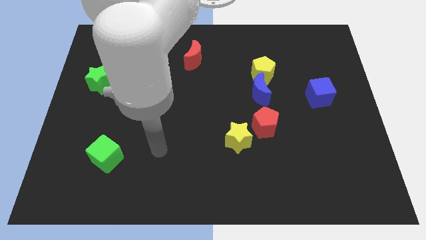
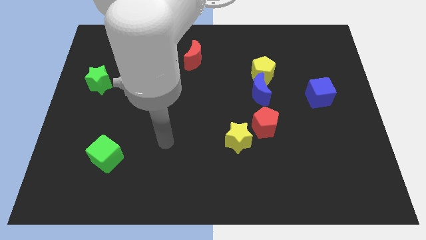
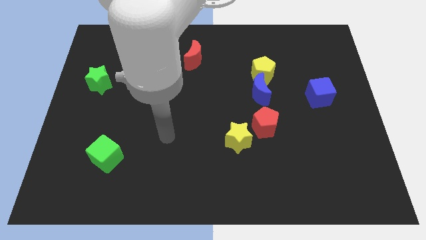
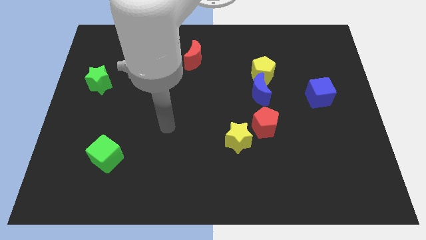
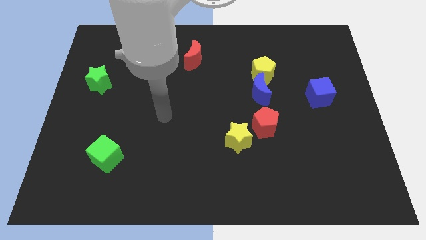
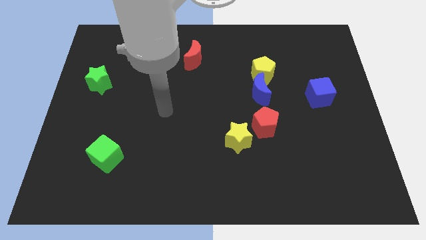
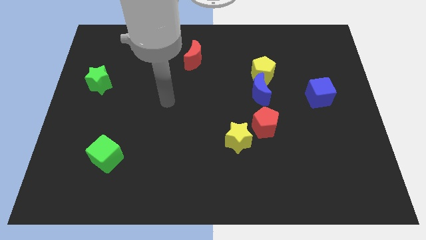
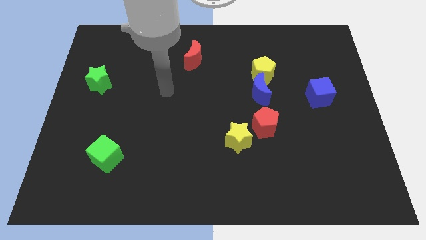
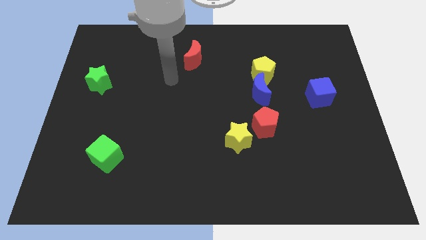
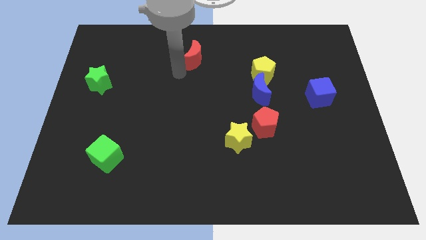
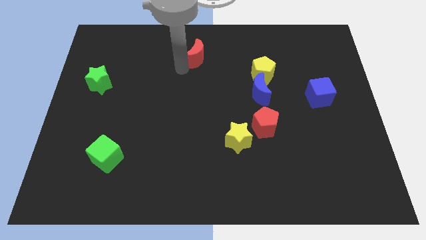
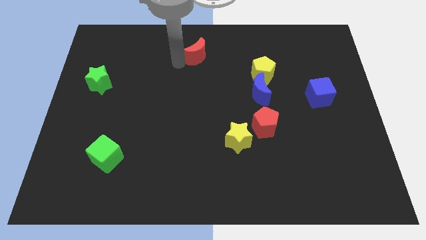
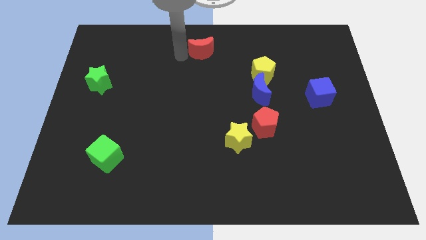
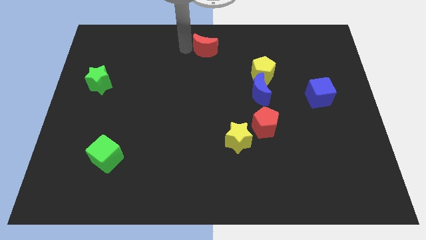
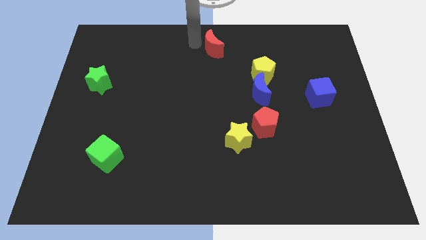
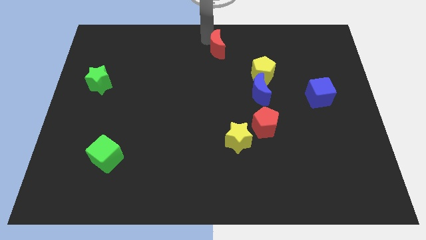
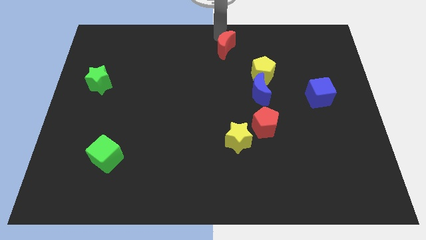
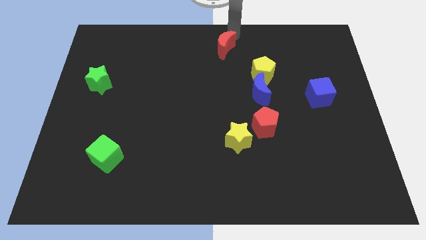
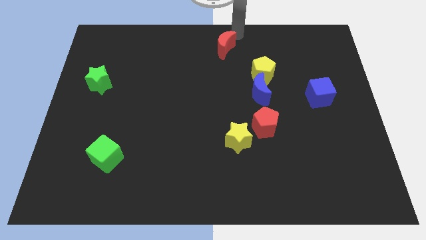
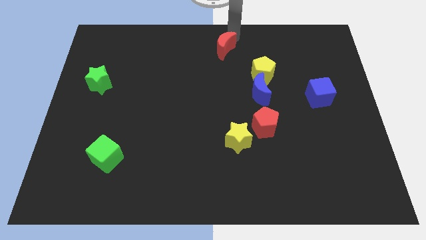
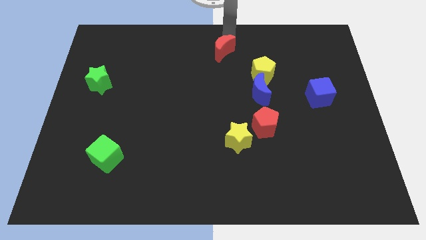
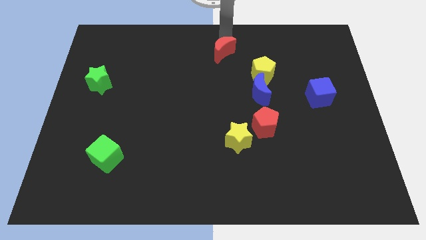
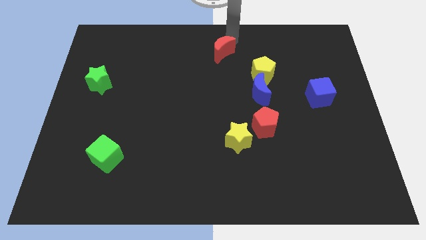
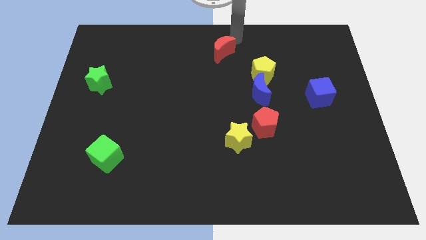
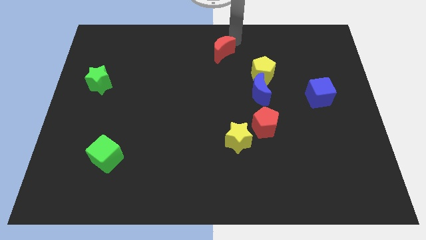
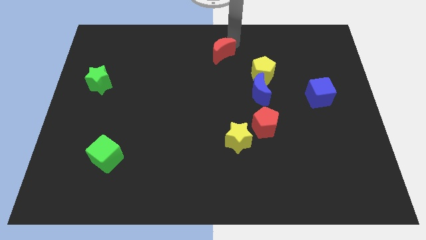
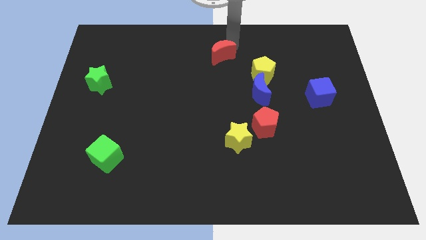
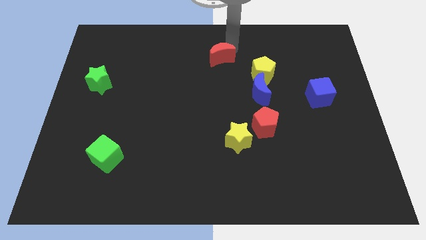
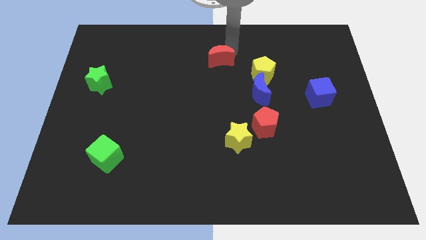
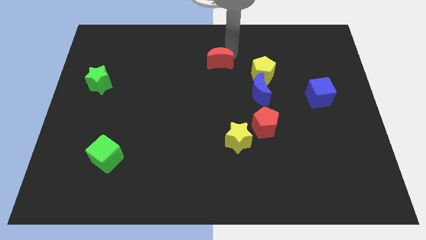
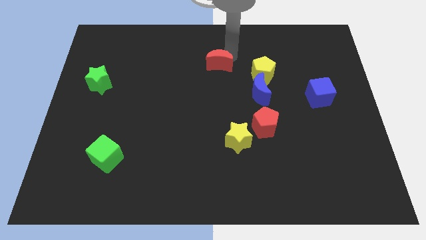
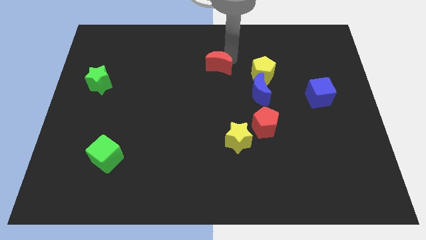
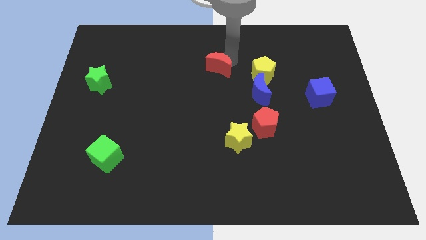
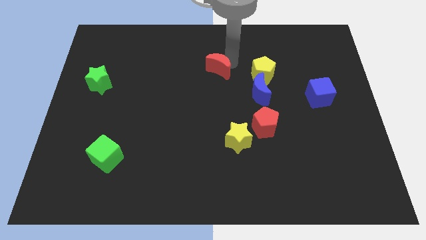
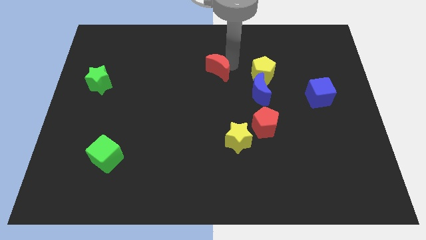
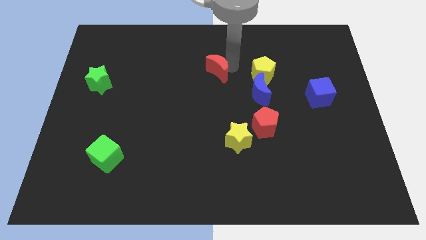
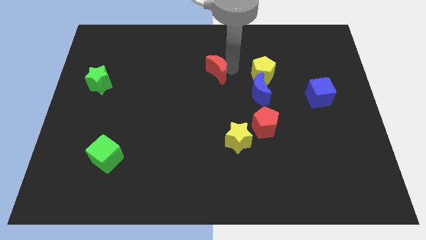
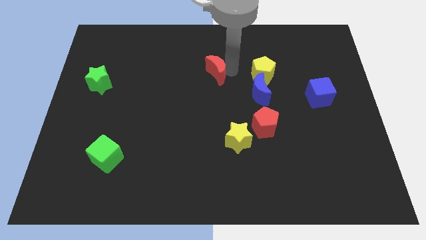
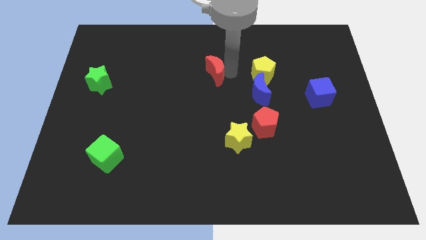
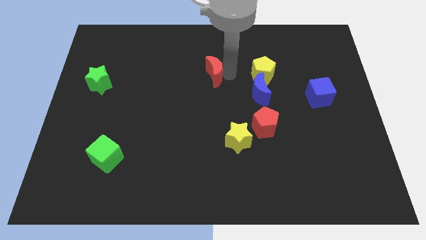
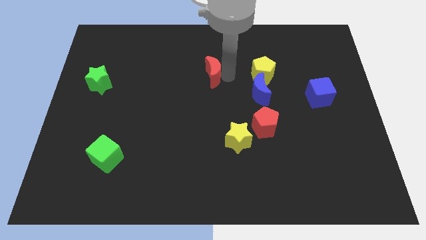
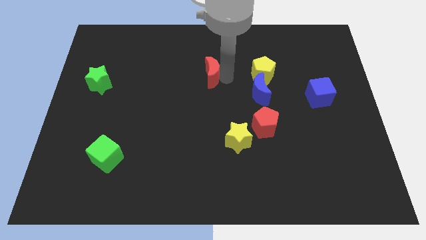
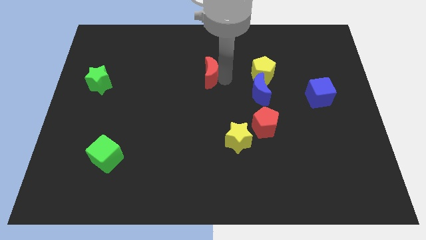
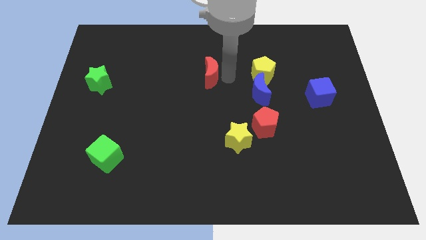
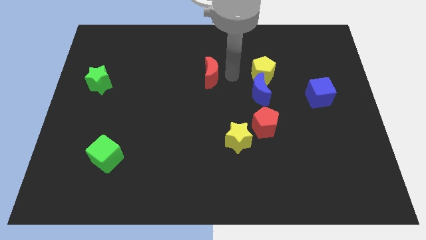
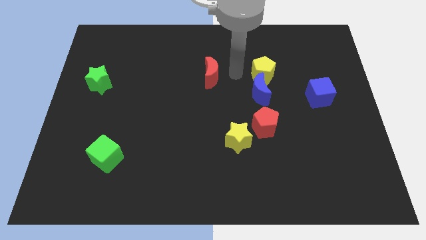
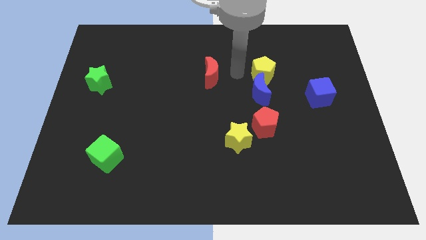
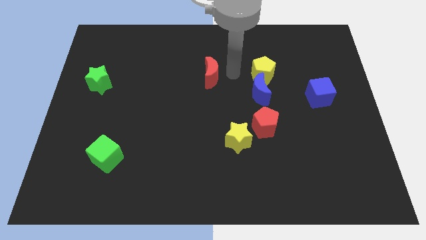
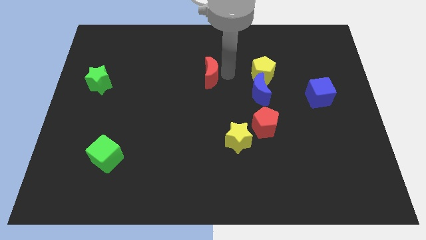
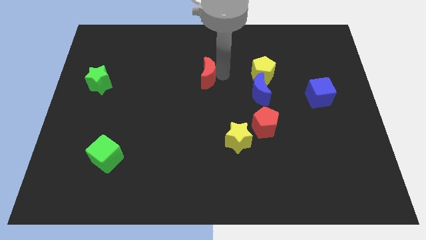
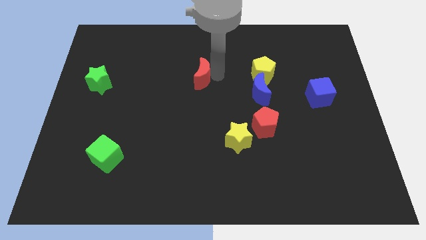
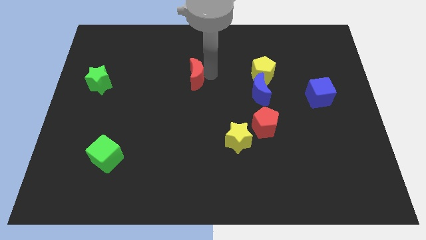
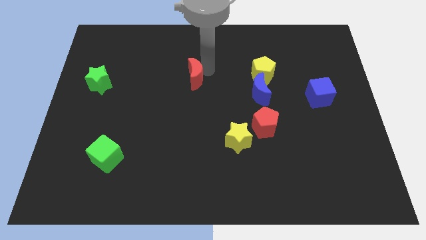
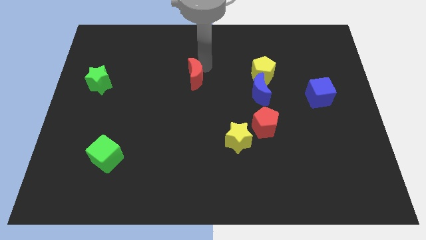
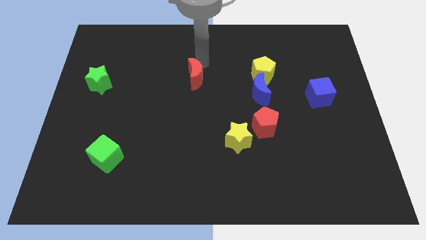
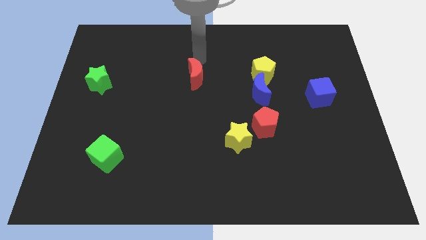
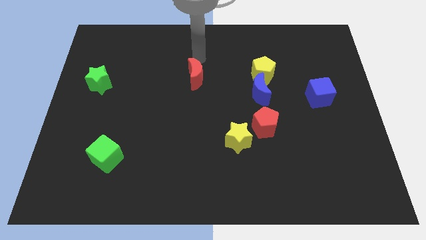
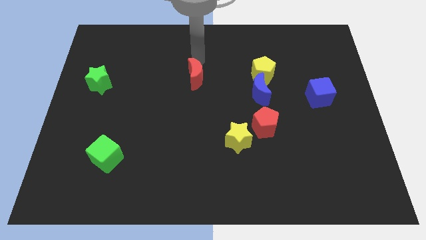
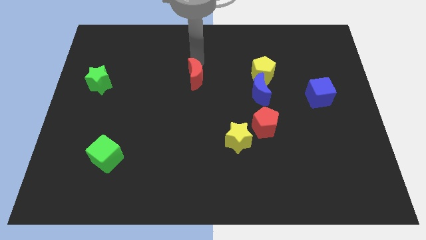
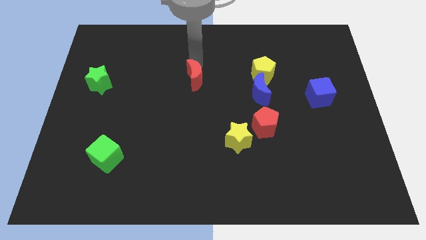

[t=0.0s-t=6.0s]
push the red moon downwards a little

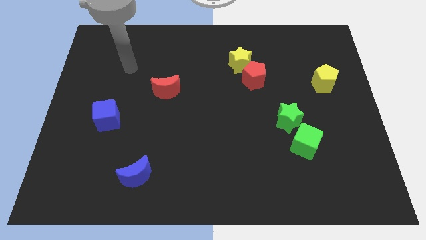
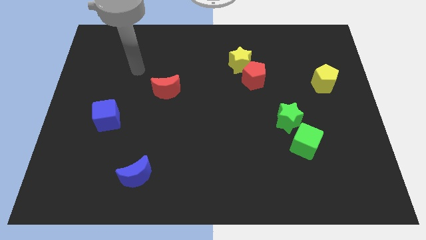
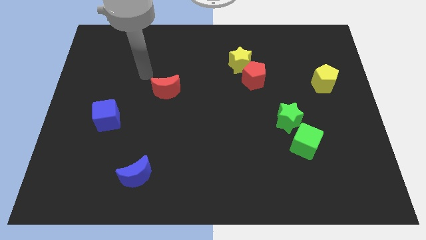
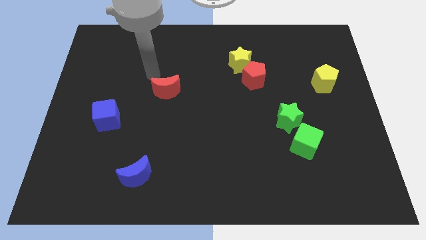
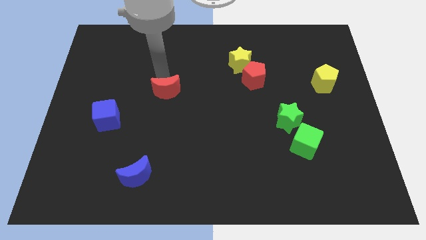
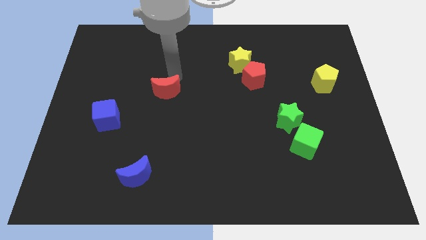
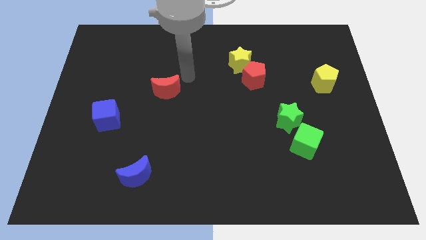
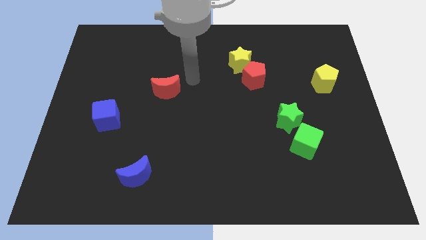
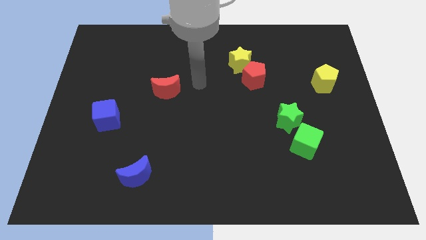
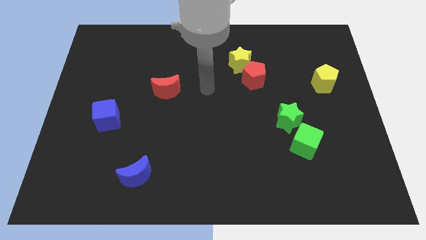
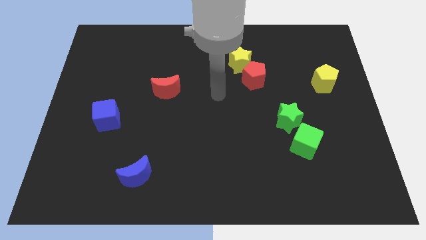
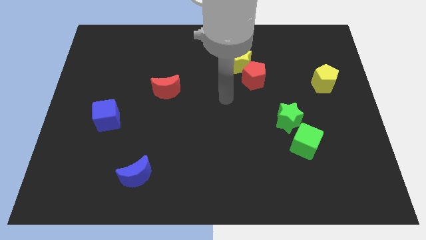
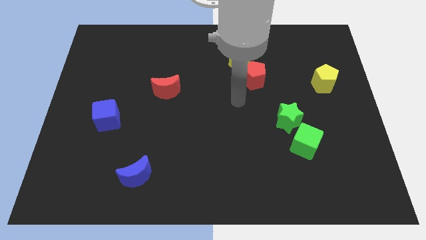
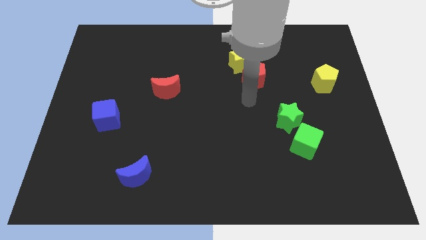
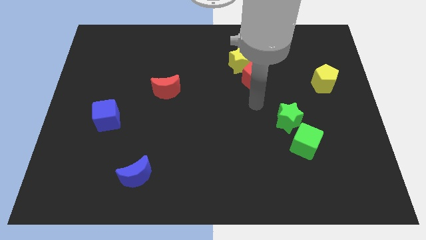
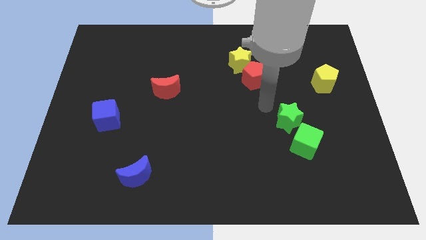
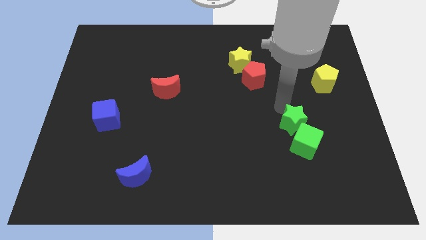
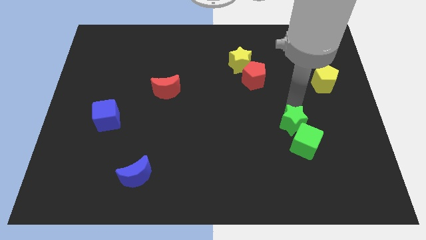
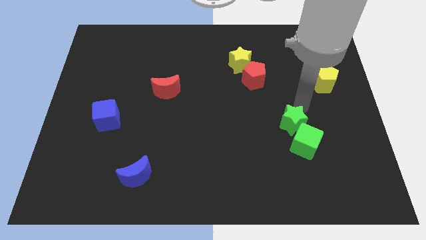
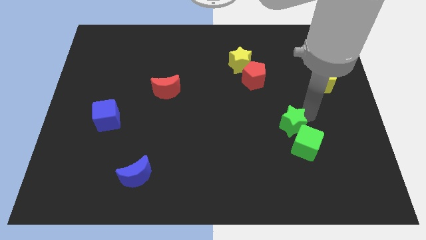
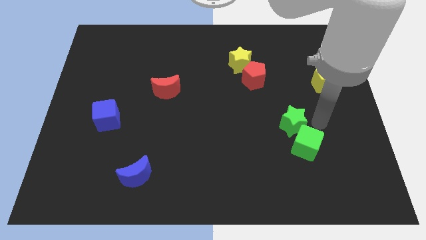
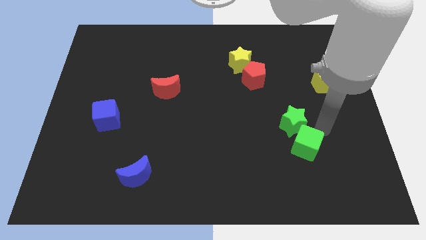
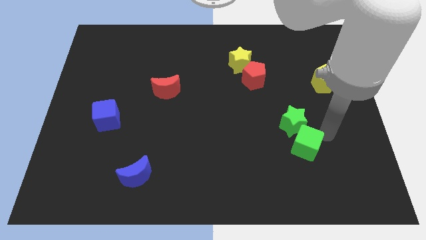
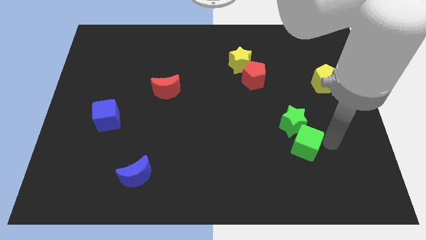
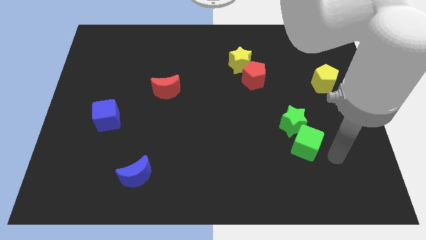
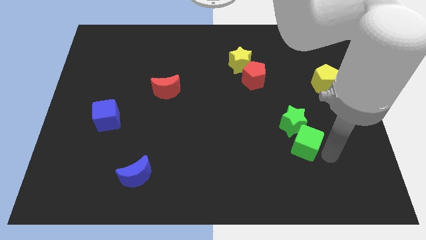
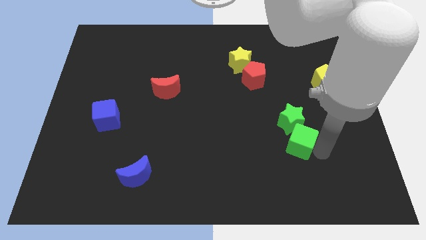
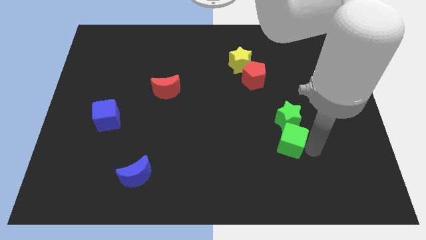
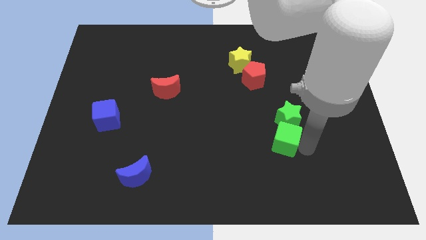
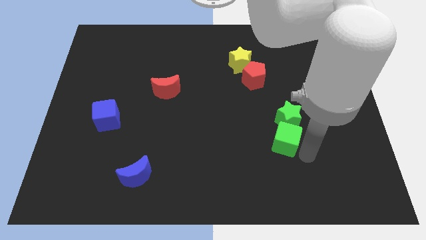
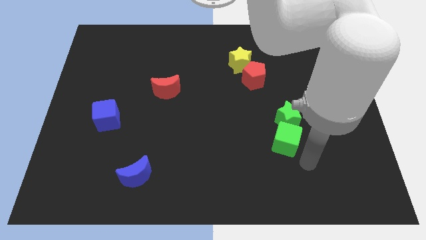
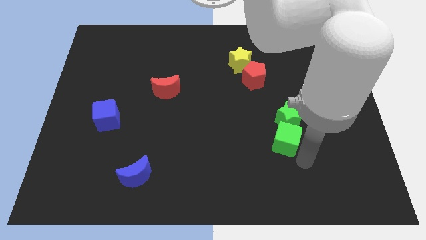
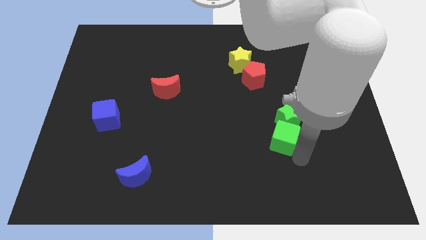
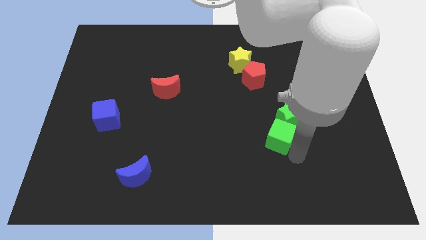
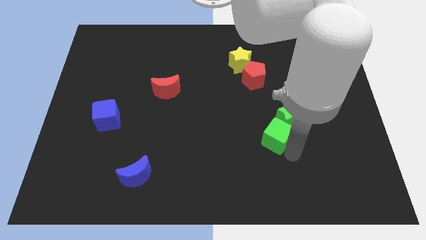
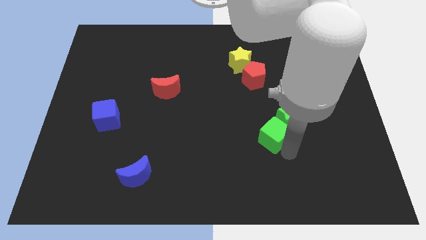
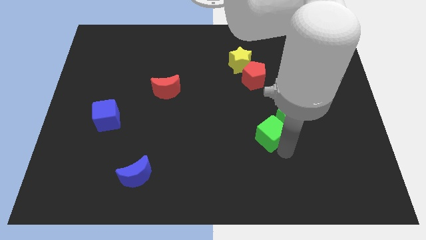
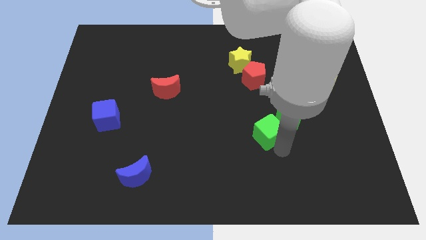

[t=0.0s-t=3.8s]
slightly slide the green cube upwards and then to the left
